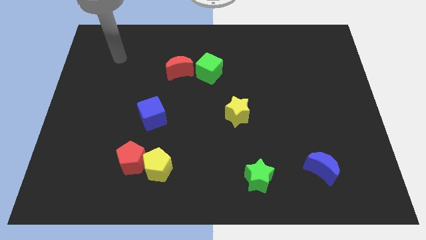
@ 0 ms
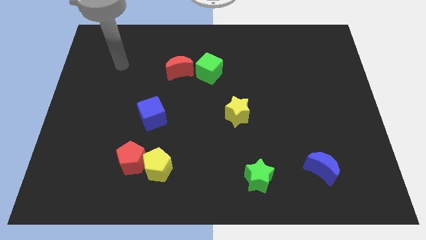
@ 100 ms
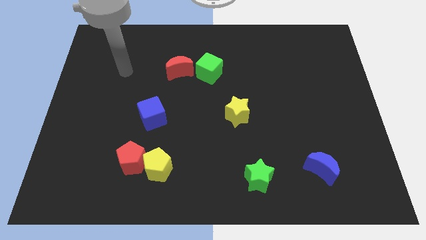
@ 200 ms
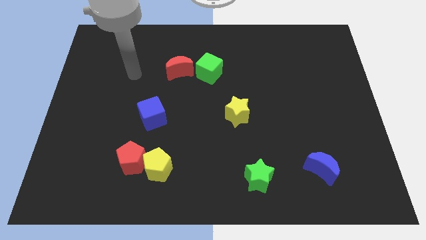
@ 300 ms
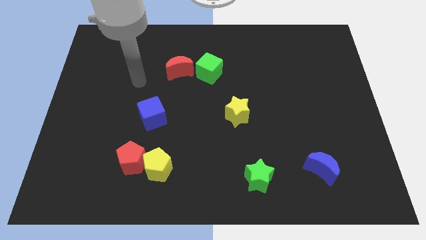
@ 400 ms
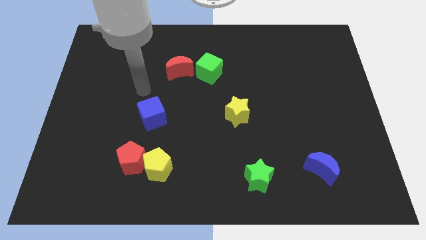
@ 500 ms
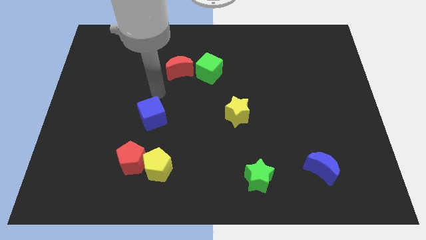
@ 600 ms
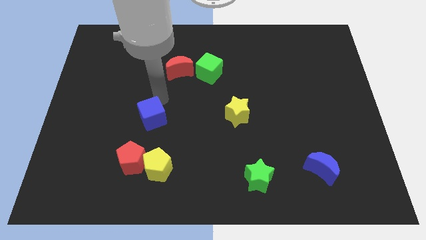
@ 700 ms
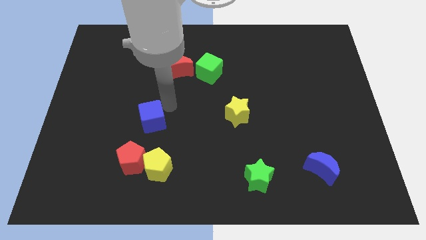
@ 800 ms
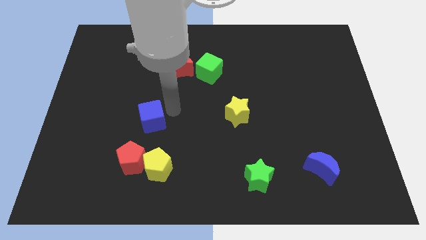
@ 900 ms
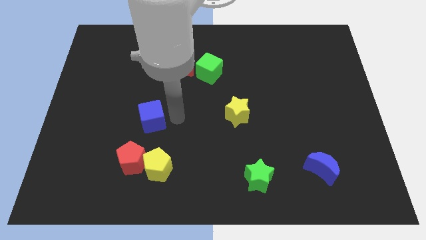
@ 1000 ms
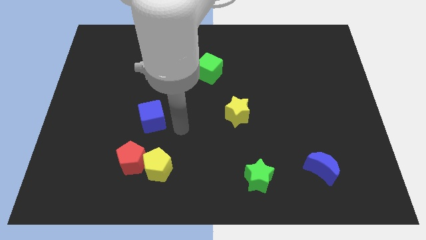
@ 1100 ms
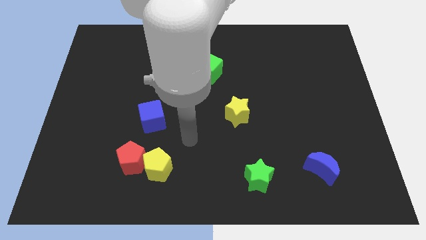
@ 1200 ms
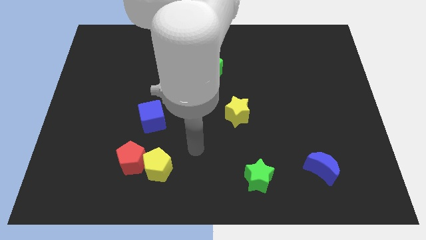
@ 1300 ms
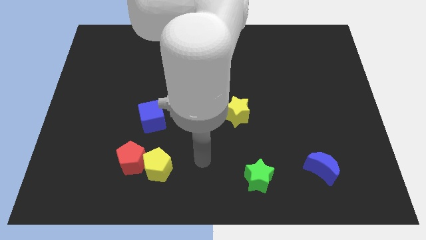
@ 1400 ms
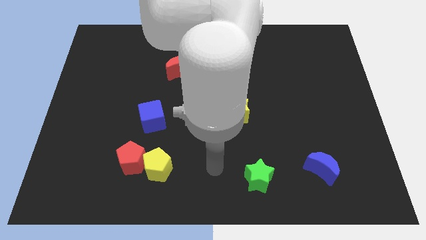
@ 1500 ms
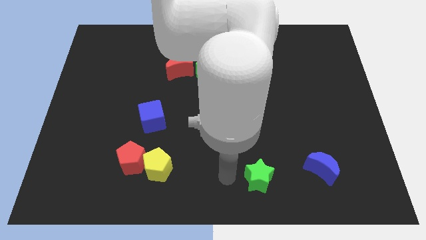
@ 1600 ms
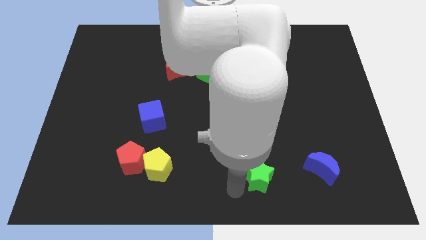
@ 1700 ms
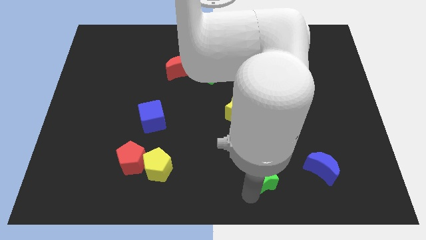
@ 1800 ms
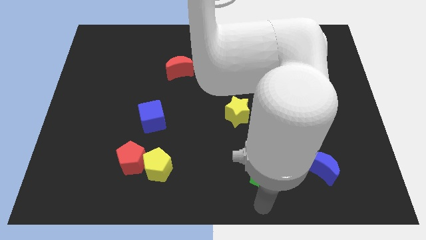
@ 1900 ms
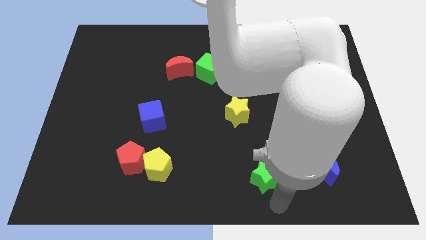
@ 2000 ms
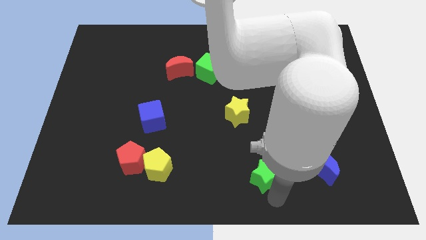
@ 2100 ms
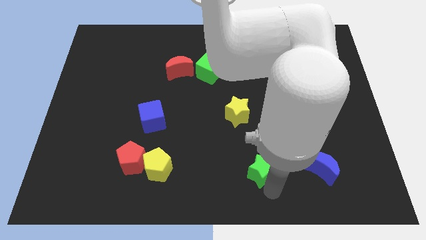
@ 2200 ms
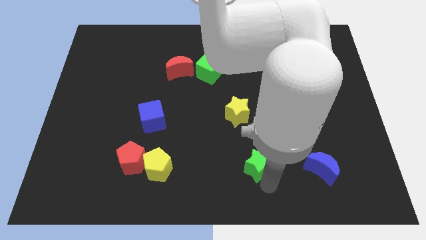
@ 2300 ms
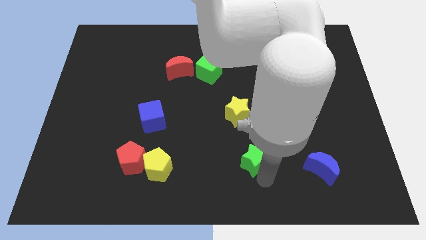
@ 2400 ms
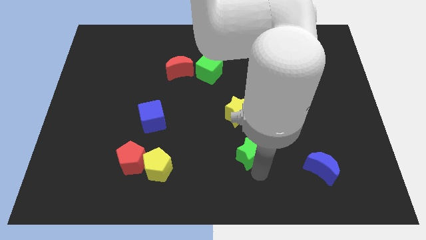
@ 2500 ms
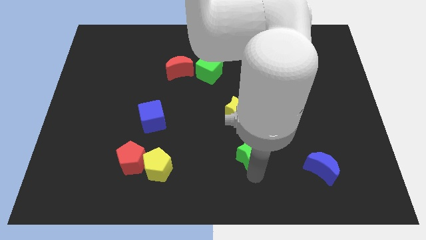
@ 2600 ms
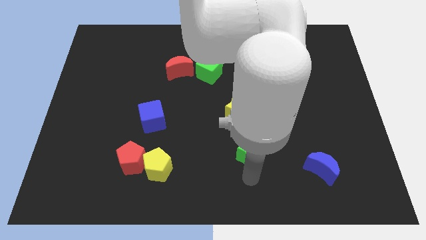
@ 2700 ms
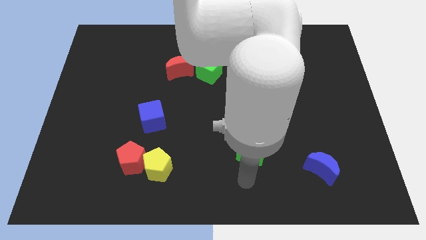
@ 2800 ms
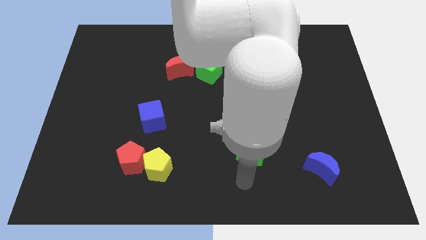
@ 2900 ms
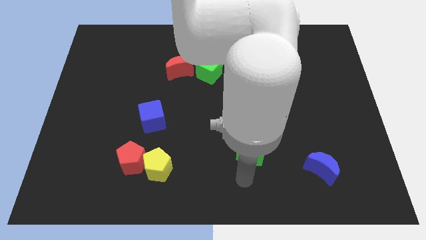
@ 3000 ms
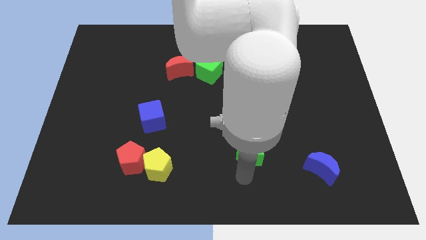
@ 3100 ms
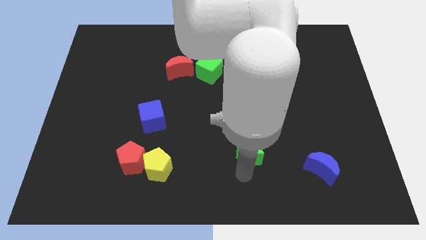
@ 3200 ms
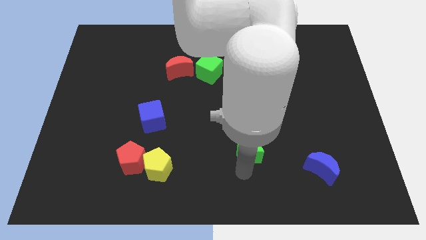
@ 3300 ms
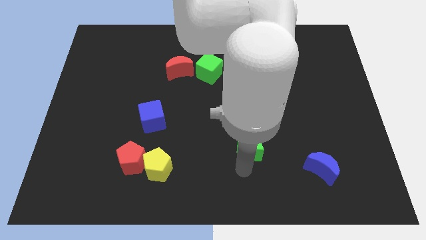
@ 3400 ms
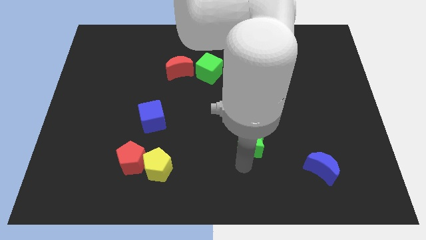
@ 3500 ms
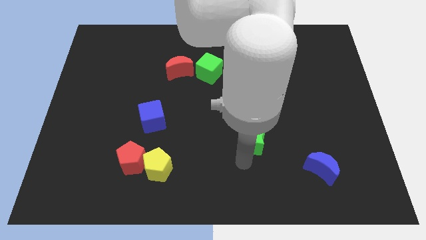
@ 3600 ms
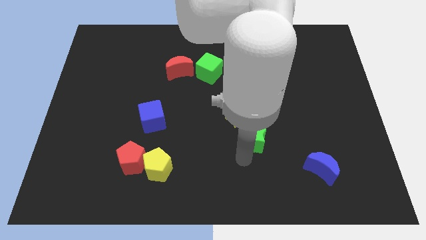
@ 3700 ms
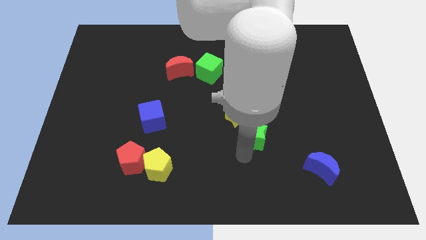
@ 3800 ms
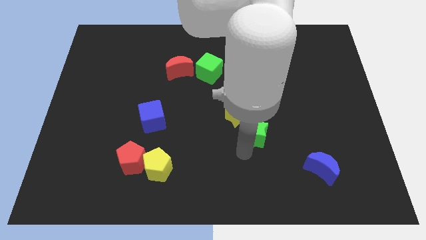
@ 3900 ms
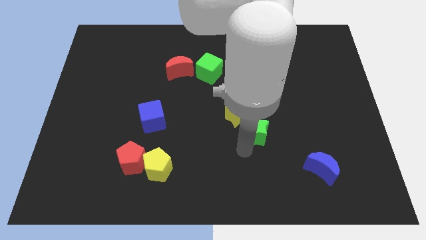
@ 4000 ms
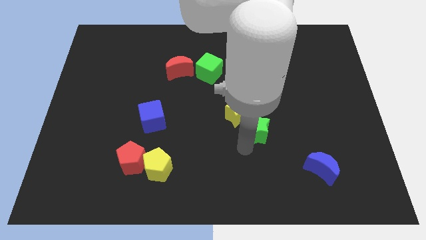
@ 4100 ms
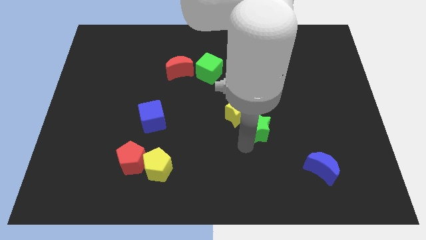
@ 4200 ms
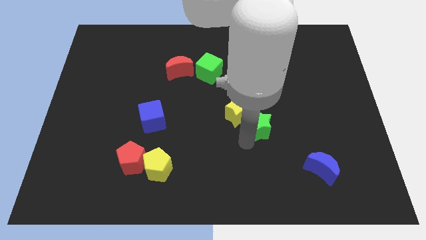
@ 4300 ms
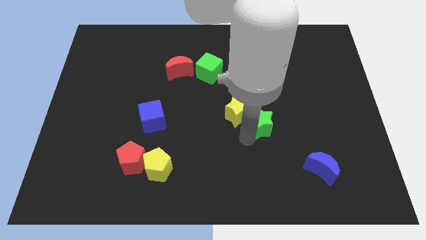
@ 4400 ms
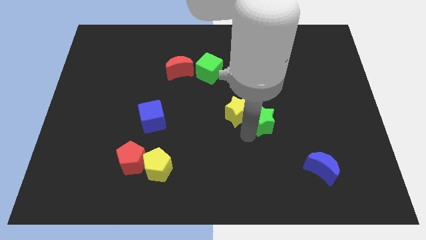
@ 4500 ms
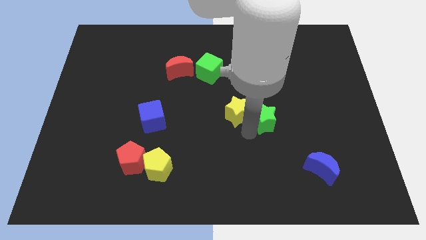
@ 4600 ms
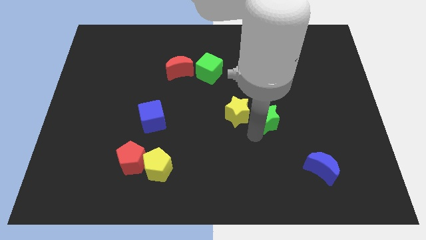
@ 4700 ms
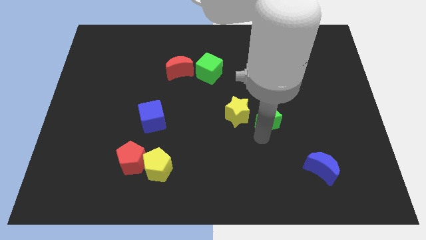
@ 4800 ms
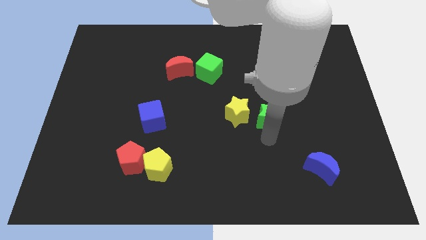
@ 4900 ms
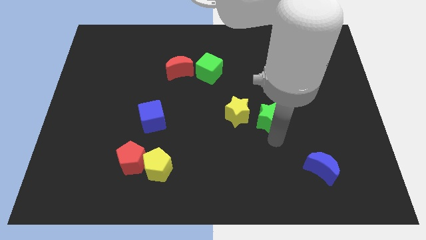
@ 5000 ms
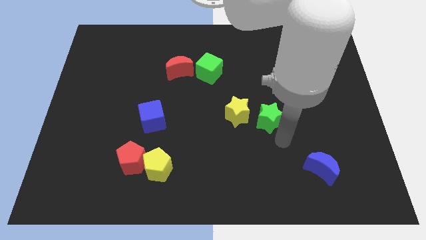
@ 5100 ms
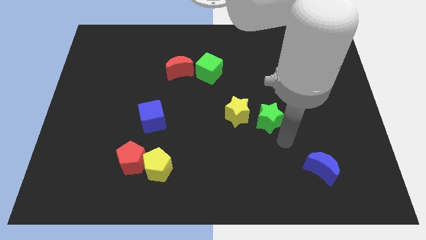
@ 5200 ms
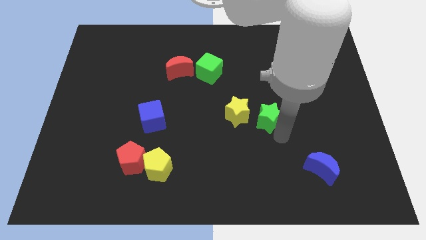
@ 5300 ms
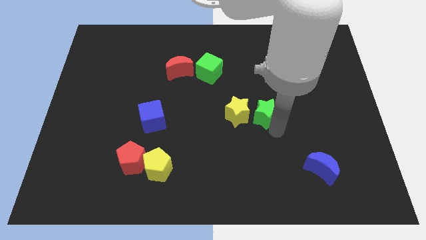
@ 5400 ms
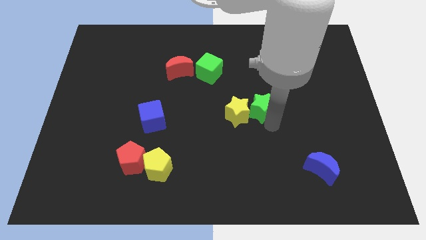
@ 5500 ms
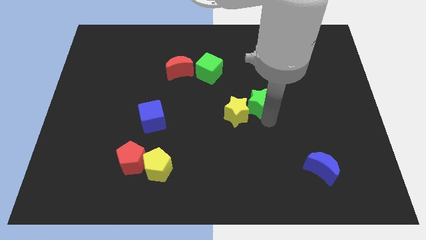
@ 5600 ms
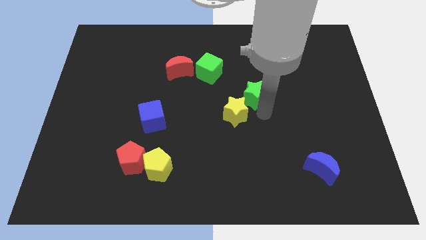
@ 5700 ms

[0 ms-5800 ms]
move the green star to the top of the yellow star

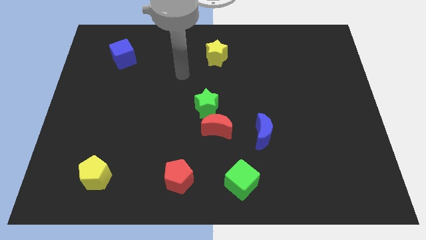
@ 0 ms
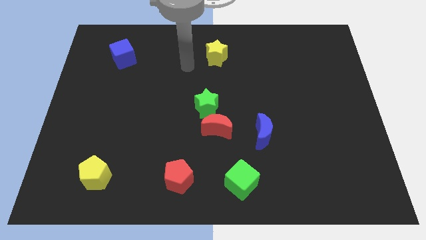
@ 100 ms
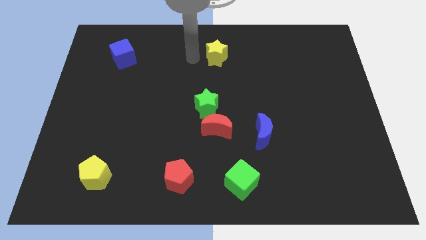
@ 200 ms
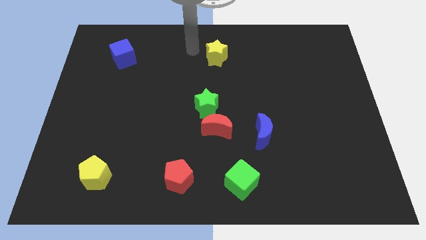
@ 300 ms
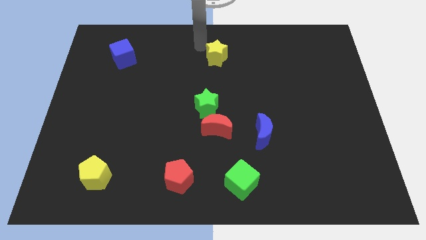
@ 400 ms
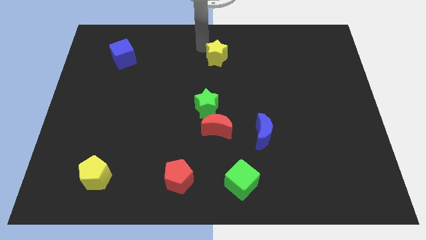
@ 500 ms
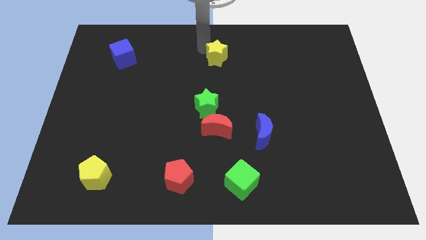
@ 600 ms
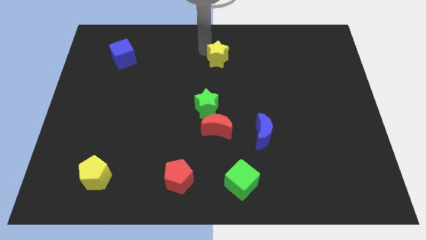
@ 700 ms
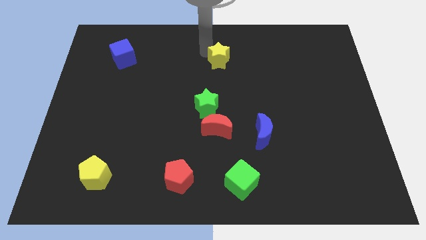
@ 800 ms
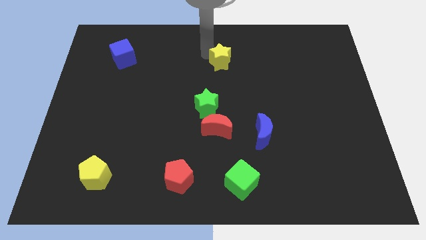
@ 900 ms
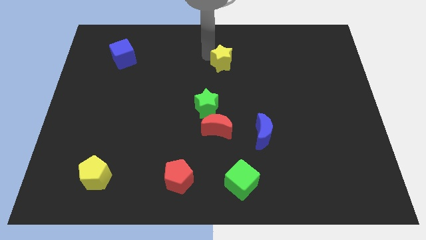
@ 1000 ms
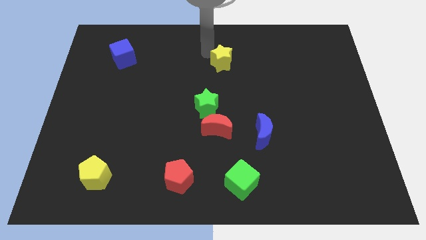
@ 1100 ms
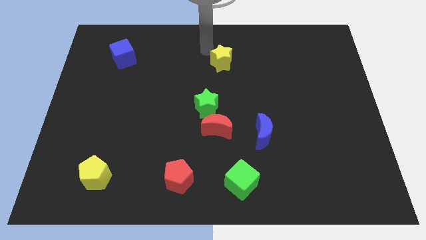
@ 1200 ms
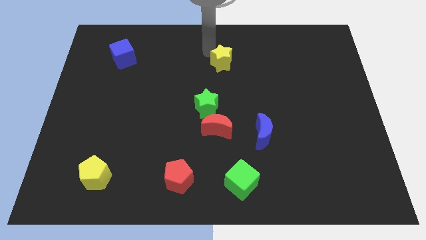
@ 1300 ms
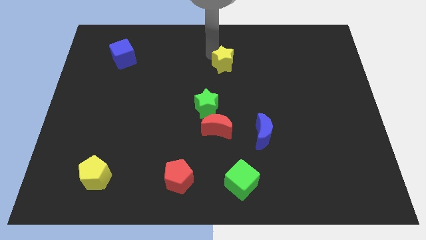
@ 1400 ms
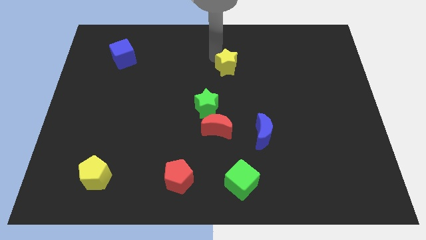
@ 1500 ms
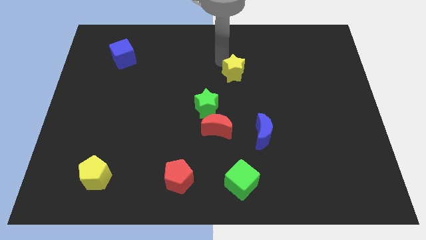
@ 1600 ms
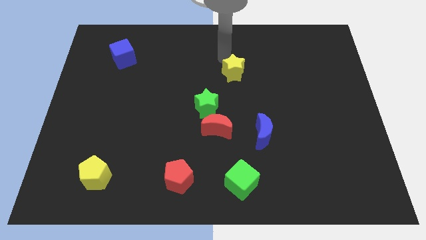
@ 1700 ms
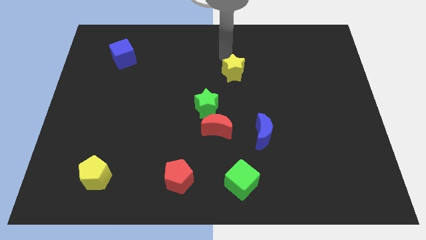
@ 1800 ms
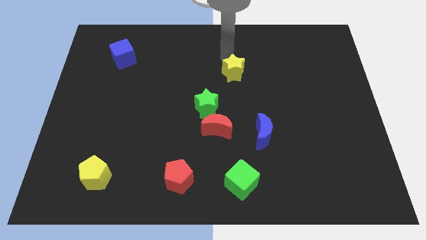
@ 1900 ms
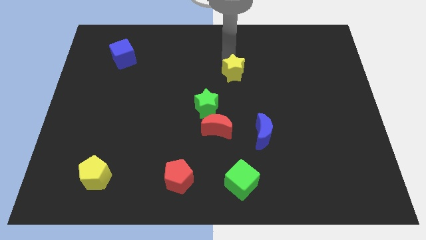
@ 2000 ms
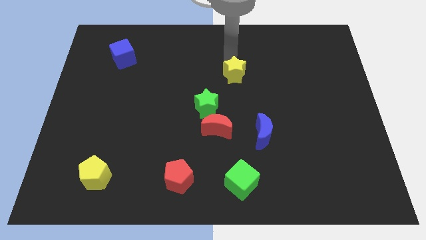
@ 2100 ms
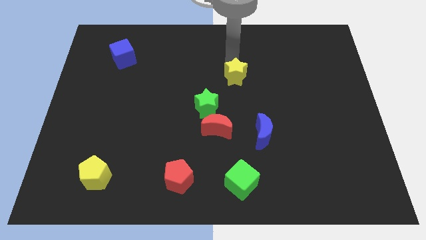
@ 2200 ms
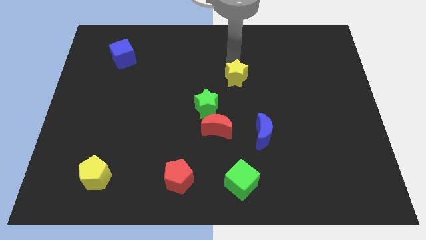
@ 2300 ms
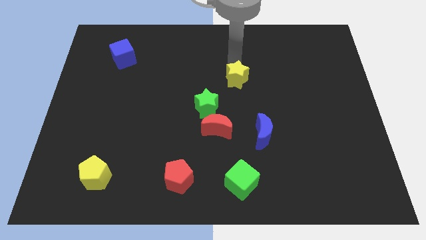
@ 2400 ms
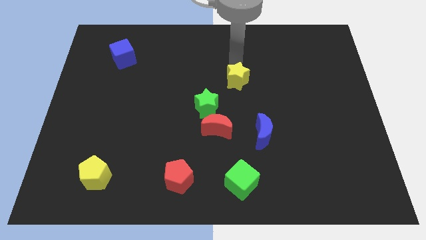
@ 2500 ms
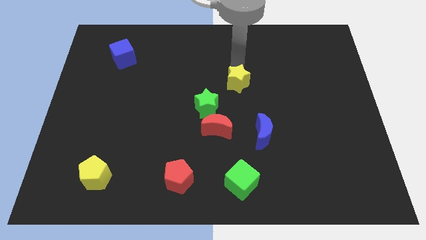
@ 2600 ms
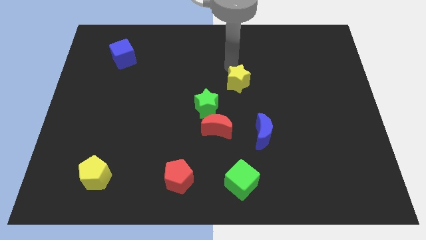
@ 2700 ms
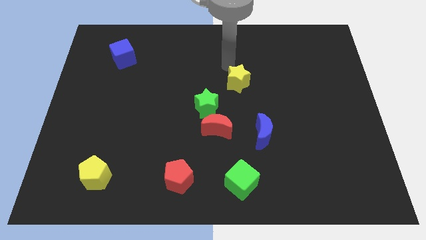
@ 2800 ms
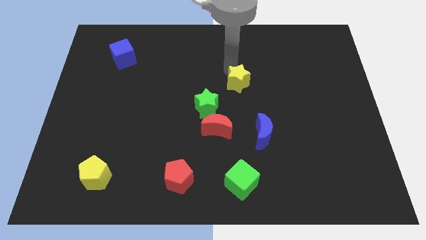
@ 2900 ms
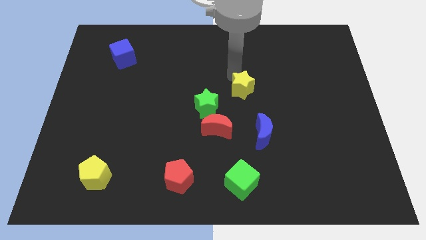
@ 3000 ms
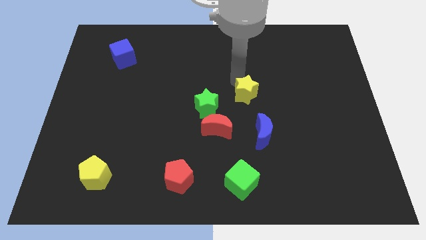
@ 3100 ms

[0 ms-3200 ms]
move the yellow star to the right side of the green star

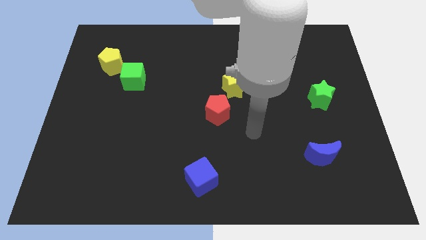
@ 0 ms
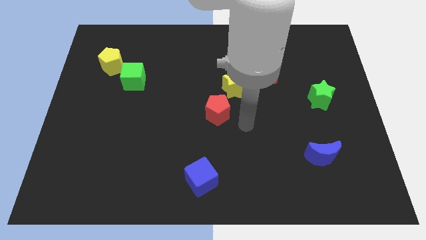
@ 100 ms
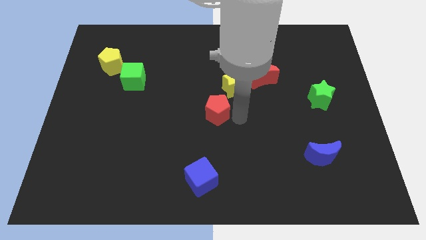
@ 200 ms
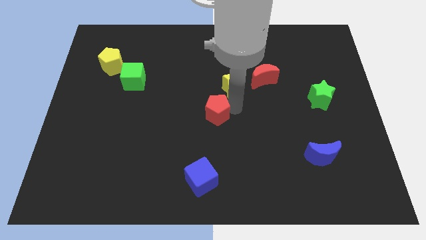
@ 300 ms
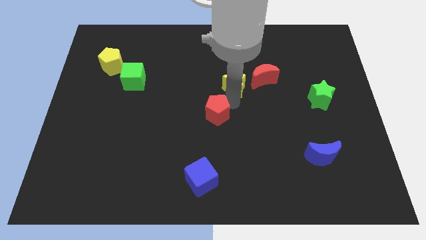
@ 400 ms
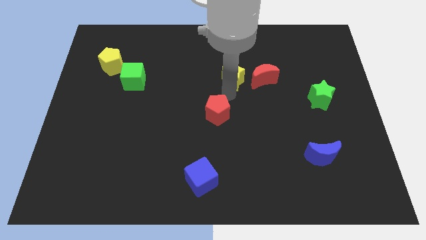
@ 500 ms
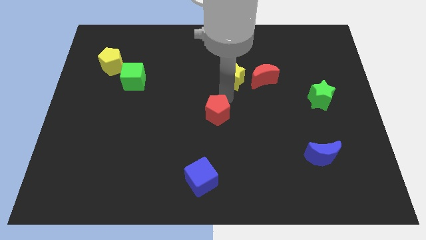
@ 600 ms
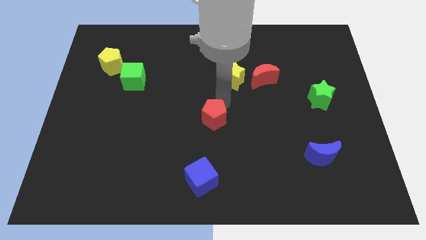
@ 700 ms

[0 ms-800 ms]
put the red pentagon above the blue cube
